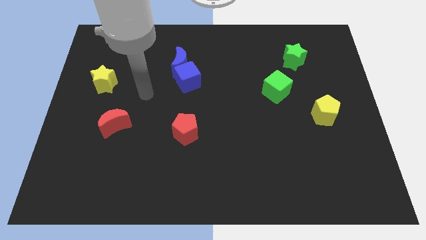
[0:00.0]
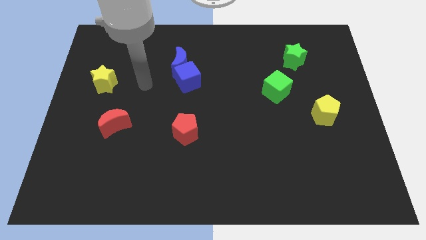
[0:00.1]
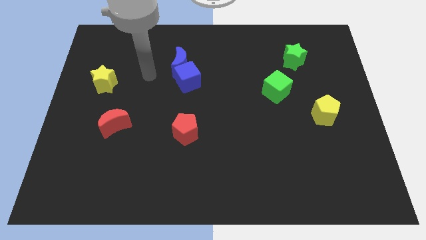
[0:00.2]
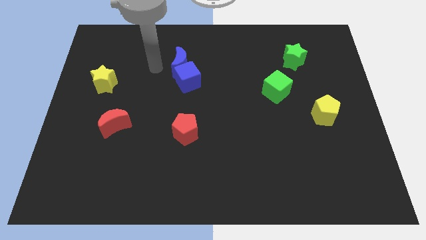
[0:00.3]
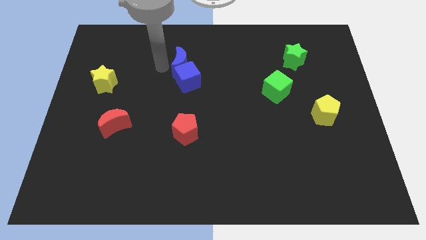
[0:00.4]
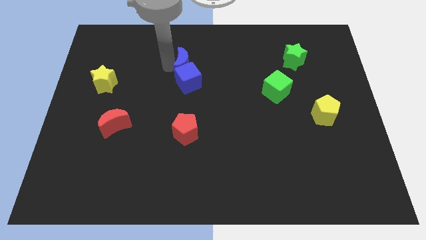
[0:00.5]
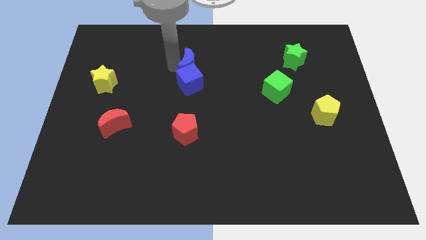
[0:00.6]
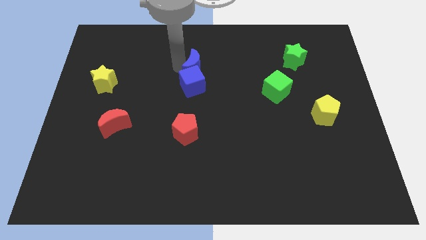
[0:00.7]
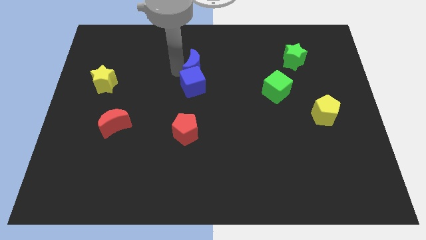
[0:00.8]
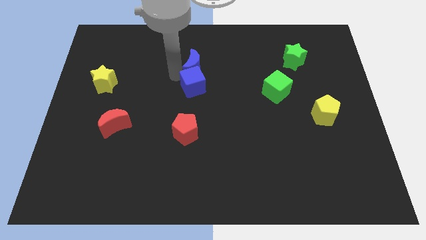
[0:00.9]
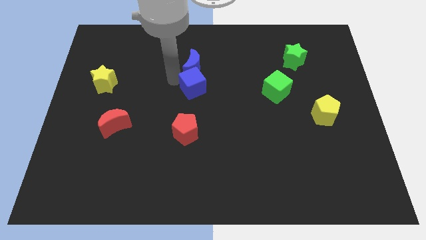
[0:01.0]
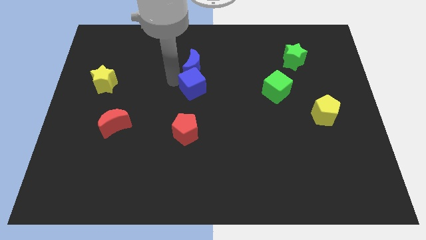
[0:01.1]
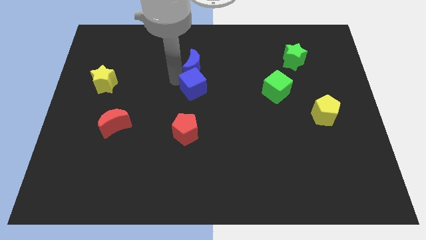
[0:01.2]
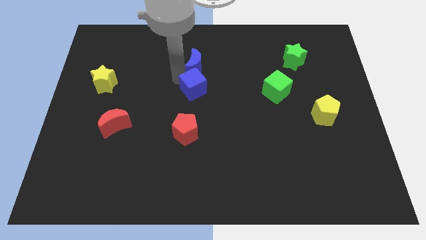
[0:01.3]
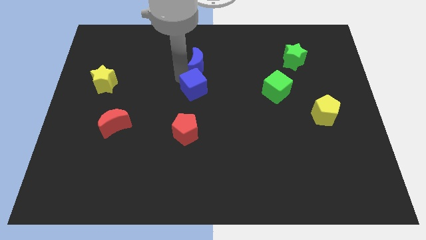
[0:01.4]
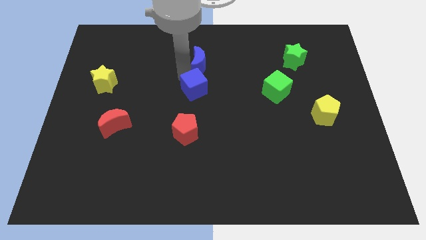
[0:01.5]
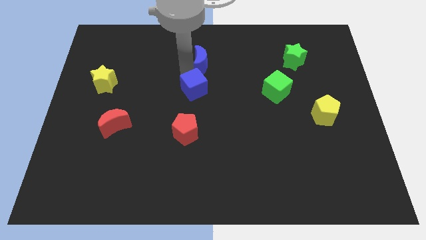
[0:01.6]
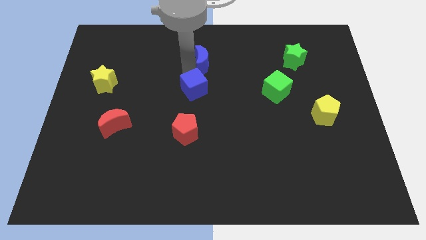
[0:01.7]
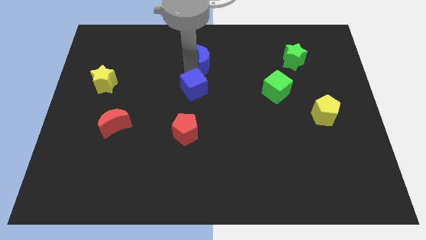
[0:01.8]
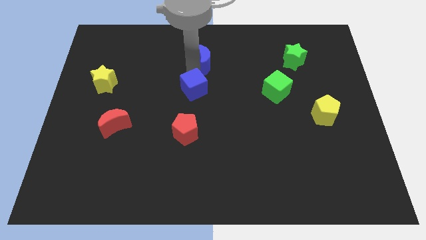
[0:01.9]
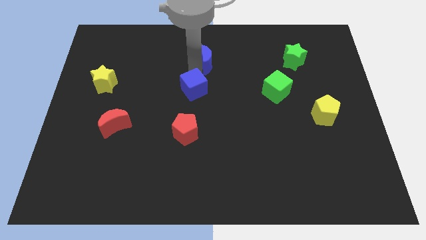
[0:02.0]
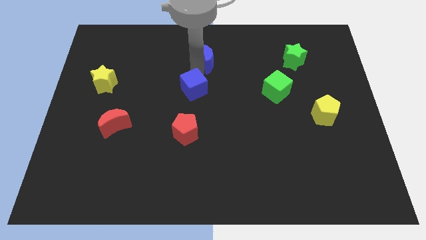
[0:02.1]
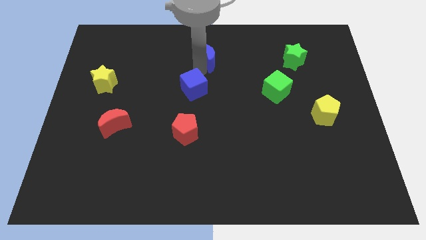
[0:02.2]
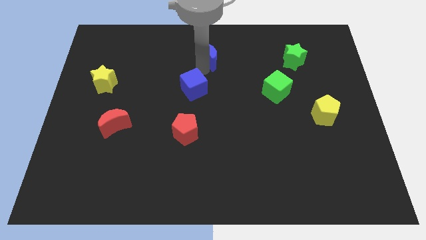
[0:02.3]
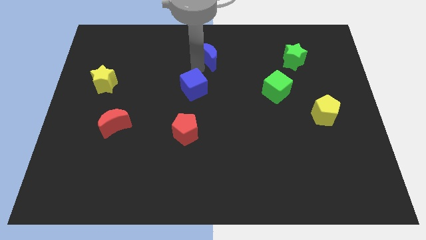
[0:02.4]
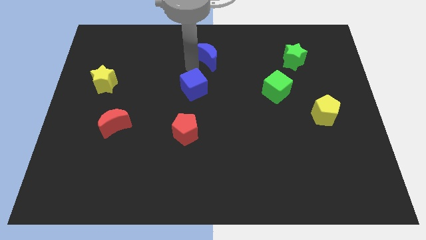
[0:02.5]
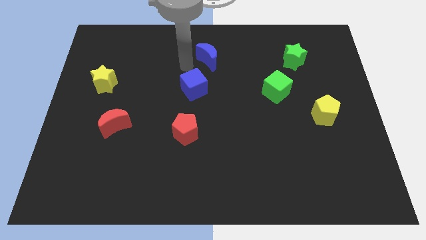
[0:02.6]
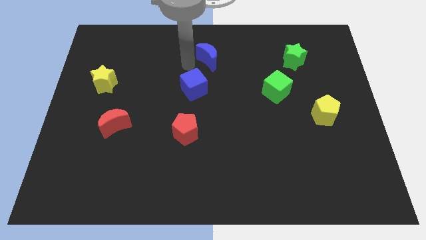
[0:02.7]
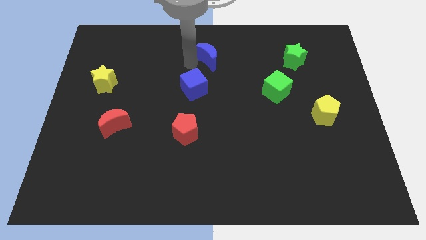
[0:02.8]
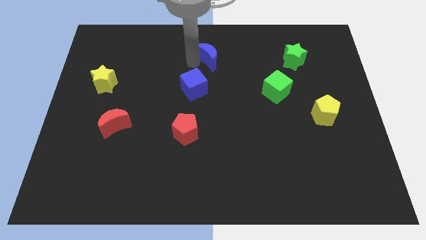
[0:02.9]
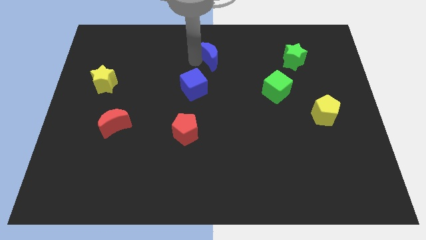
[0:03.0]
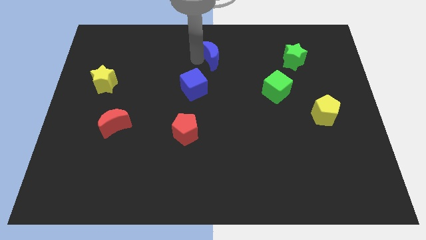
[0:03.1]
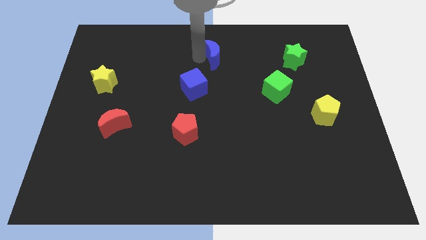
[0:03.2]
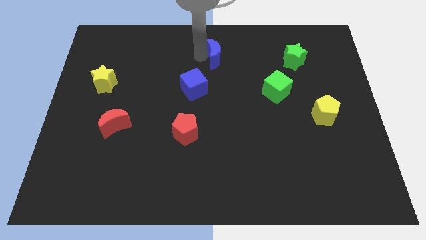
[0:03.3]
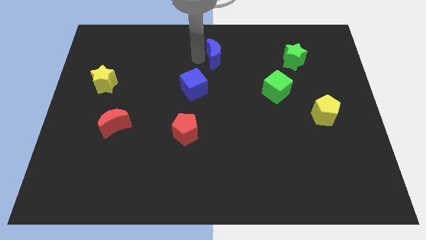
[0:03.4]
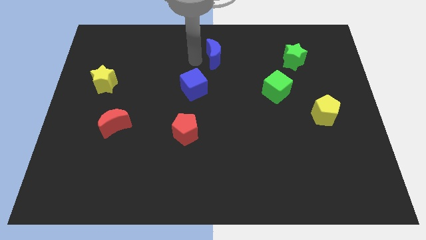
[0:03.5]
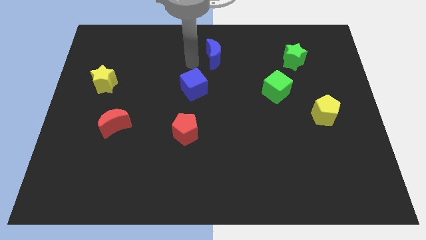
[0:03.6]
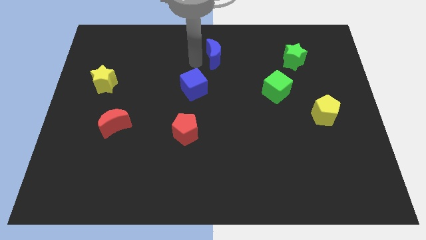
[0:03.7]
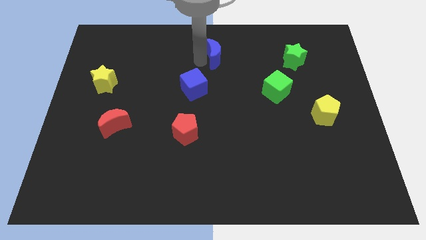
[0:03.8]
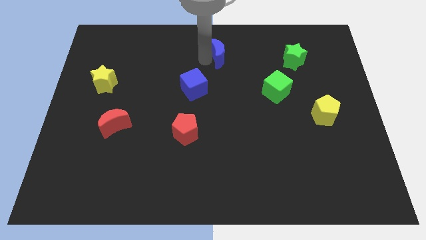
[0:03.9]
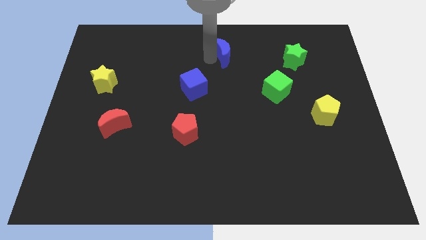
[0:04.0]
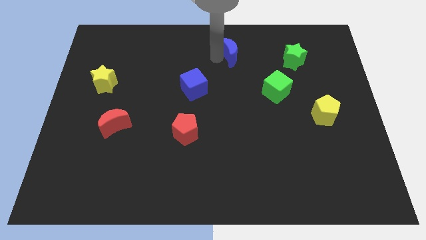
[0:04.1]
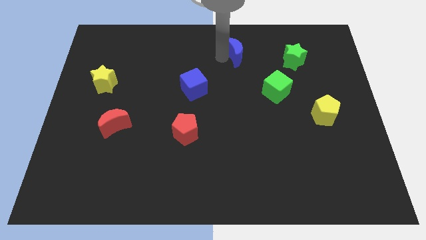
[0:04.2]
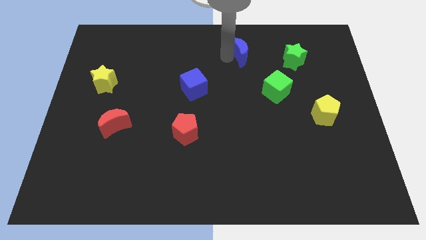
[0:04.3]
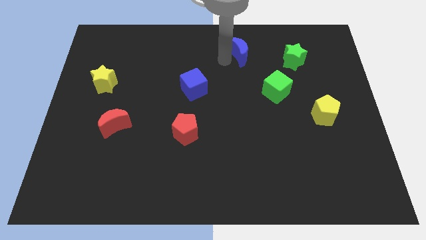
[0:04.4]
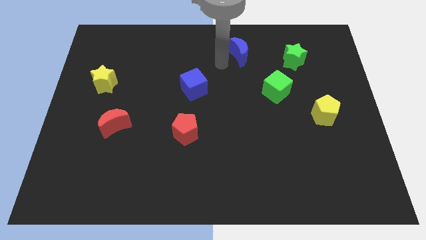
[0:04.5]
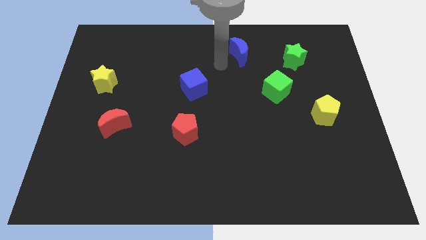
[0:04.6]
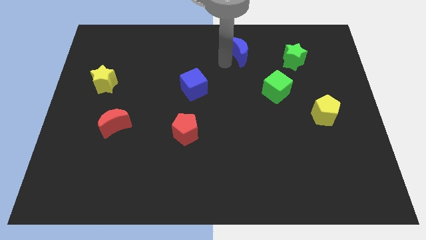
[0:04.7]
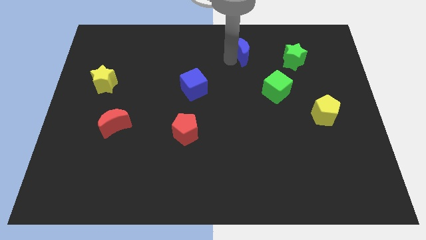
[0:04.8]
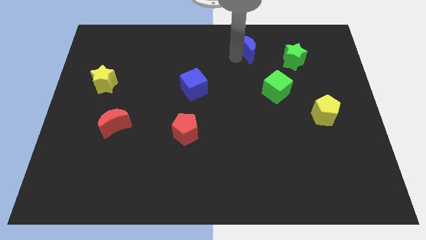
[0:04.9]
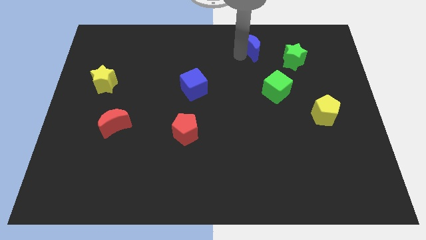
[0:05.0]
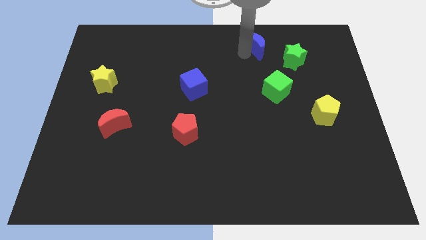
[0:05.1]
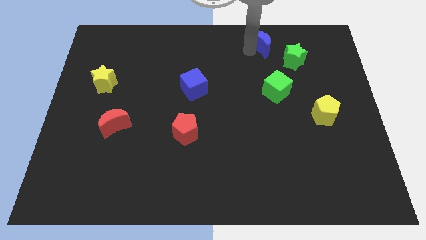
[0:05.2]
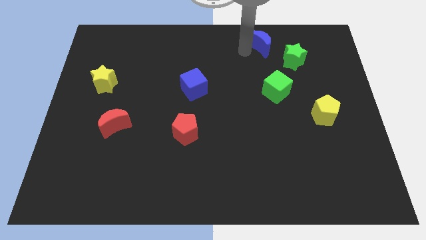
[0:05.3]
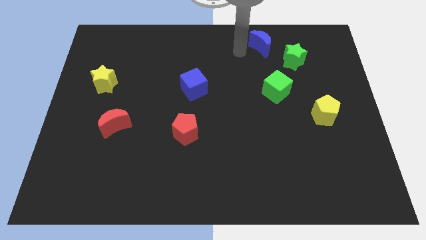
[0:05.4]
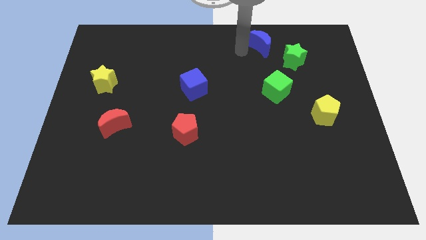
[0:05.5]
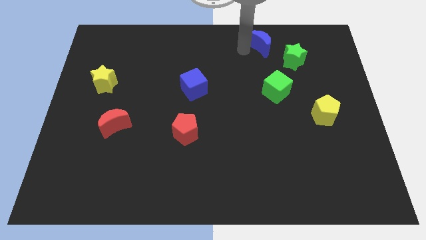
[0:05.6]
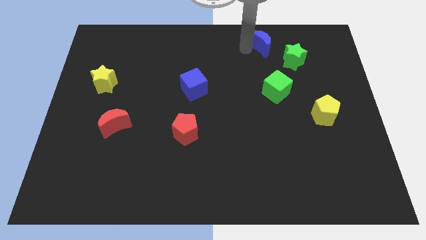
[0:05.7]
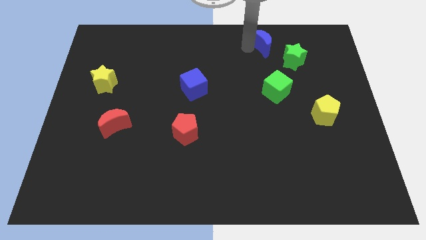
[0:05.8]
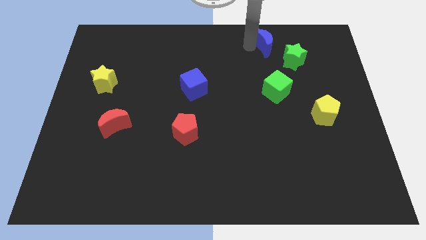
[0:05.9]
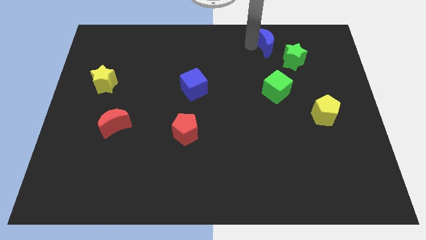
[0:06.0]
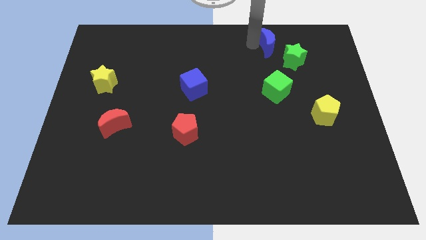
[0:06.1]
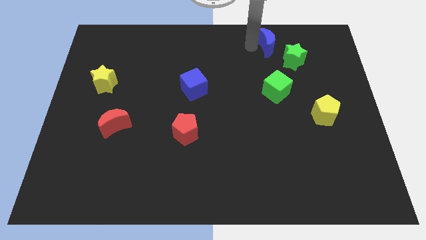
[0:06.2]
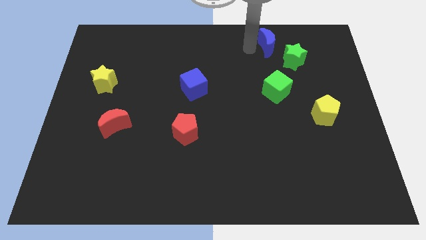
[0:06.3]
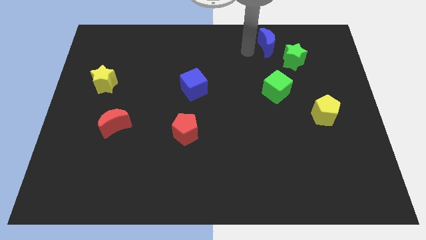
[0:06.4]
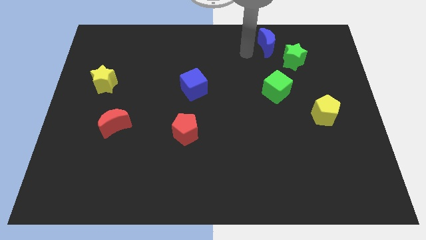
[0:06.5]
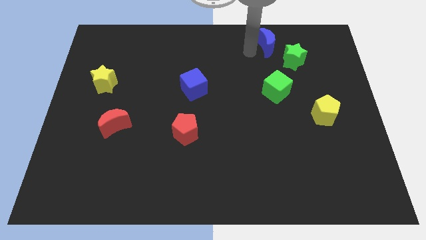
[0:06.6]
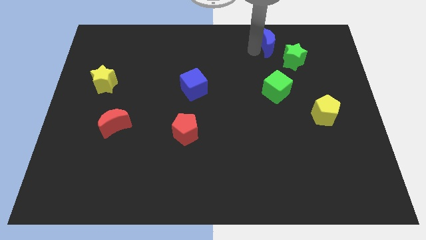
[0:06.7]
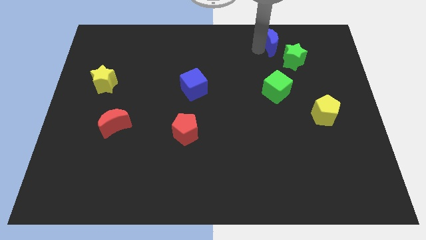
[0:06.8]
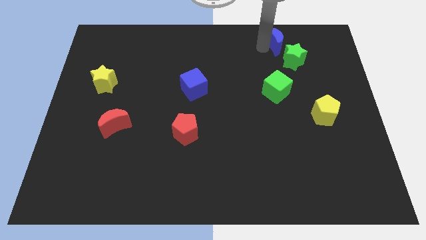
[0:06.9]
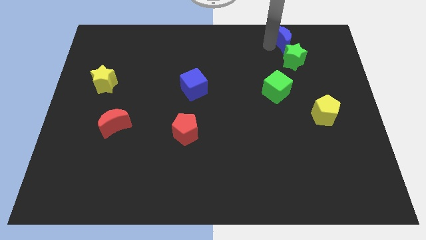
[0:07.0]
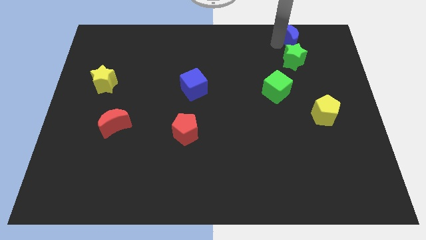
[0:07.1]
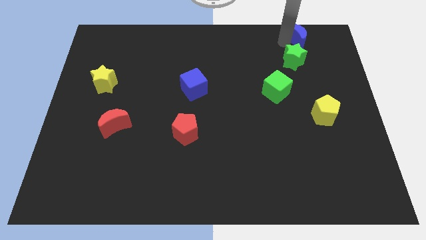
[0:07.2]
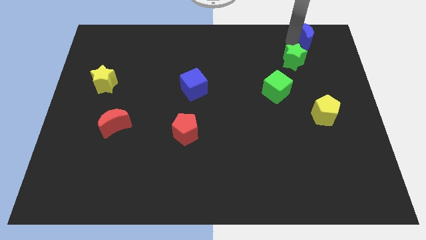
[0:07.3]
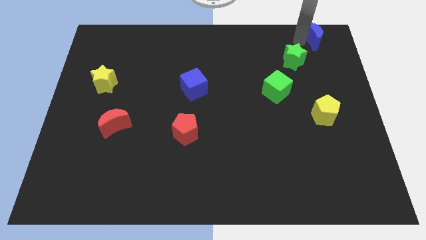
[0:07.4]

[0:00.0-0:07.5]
push the blue moon to the top right of the board
